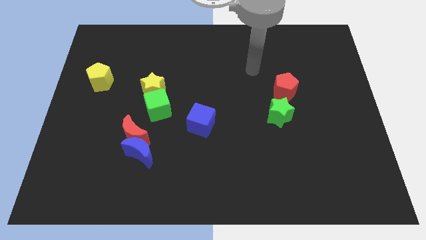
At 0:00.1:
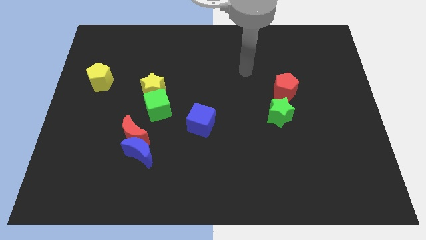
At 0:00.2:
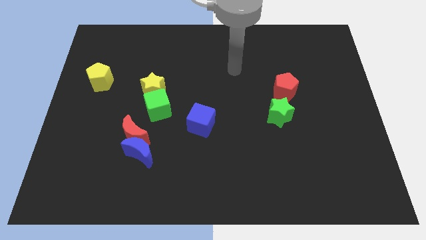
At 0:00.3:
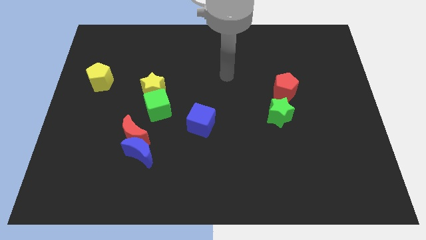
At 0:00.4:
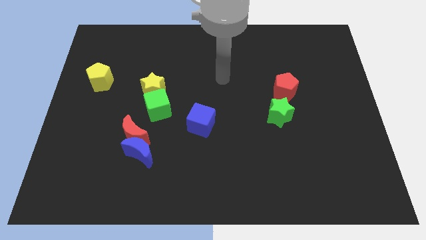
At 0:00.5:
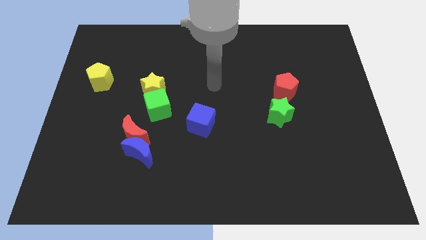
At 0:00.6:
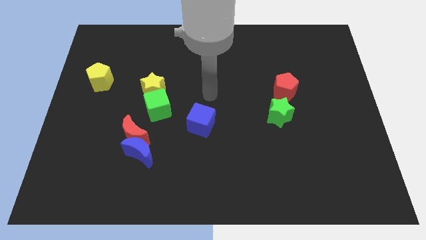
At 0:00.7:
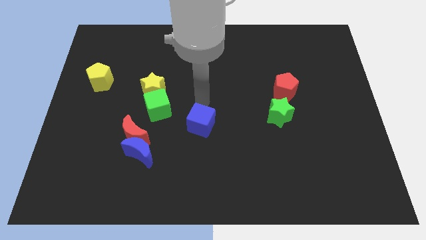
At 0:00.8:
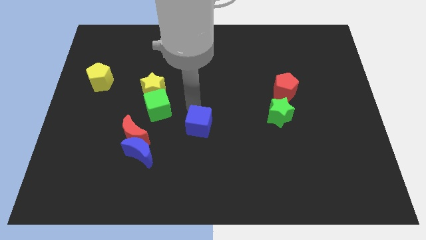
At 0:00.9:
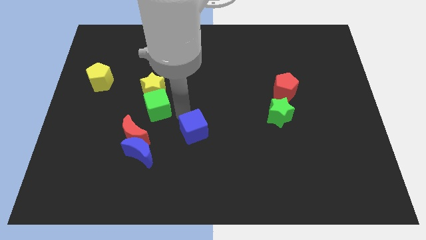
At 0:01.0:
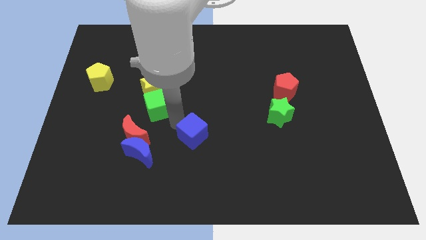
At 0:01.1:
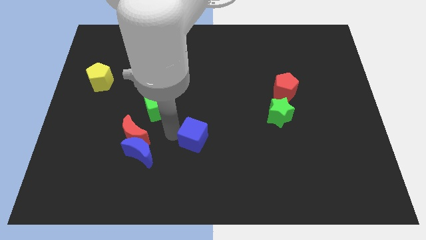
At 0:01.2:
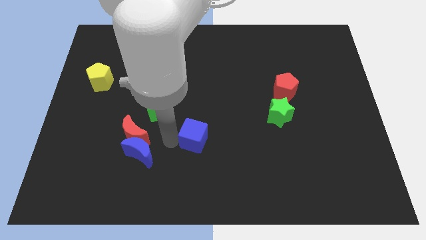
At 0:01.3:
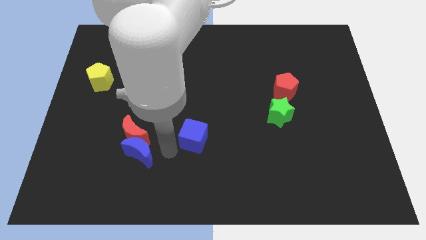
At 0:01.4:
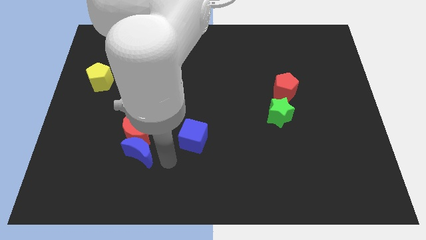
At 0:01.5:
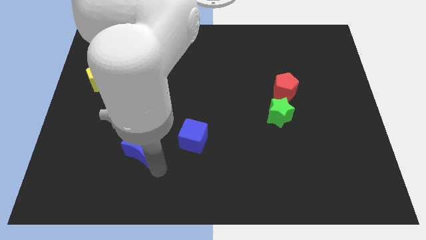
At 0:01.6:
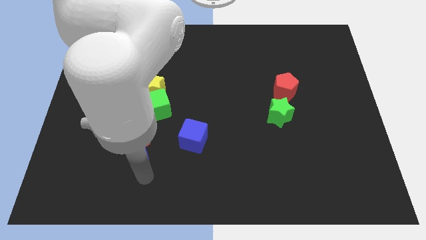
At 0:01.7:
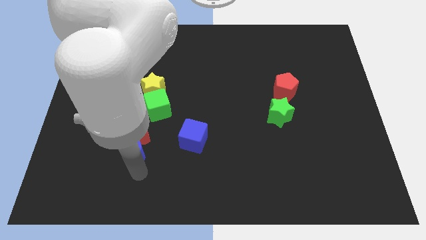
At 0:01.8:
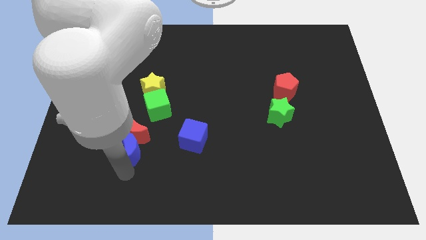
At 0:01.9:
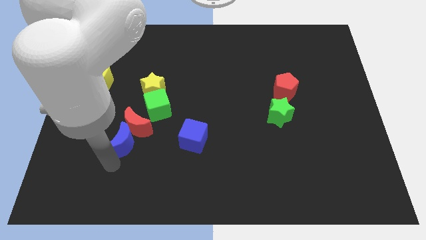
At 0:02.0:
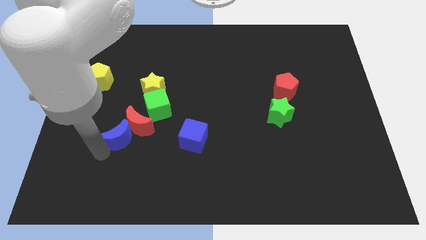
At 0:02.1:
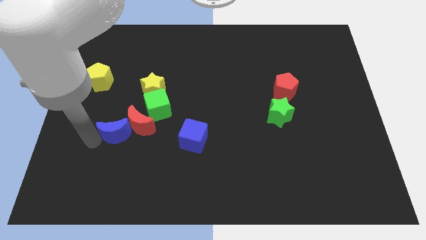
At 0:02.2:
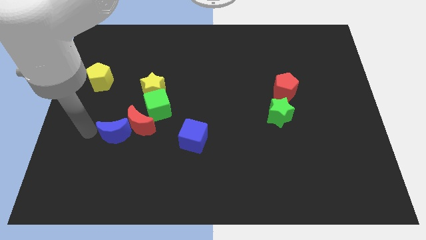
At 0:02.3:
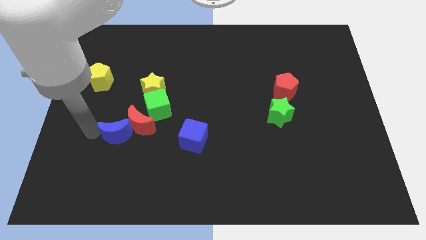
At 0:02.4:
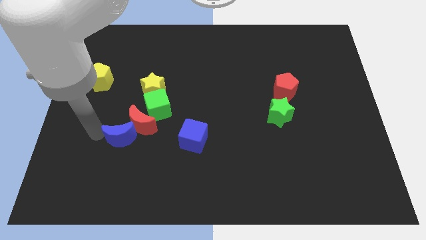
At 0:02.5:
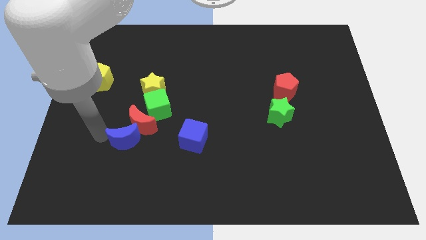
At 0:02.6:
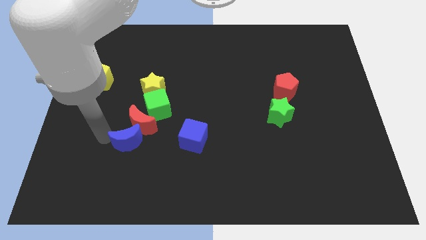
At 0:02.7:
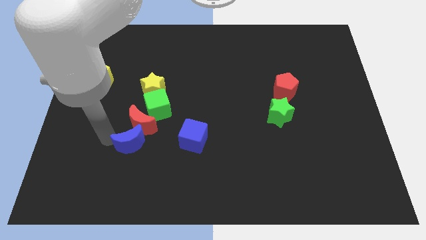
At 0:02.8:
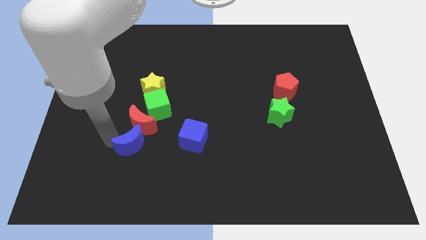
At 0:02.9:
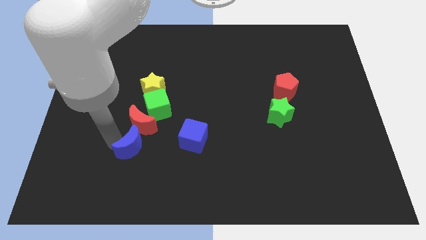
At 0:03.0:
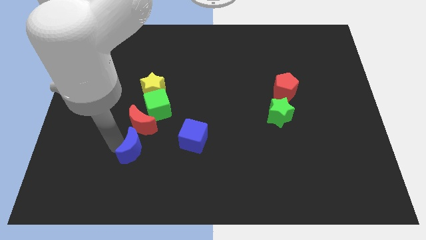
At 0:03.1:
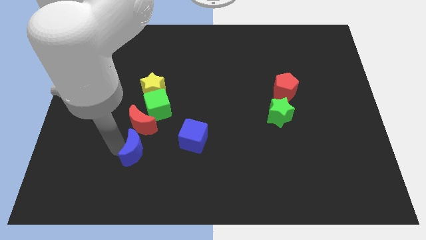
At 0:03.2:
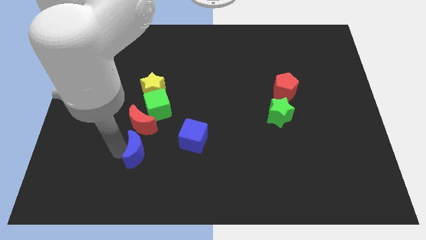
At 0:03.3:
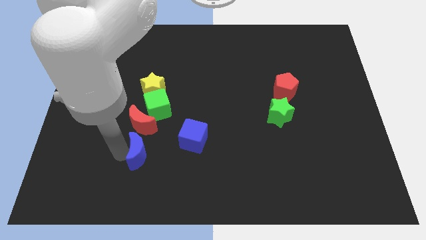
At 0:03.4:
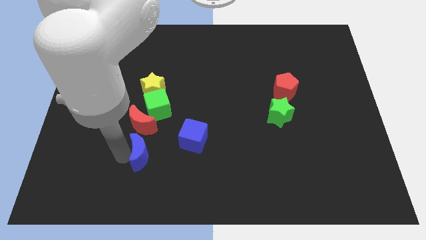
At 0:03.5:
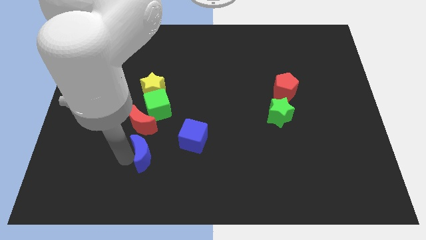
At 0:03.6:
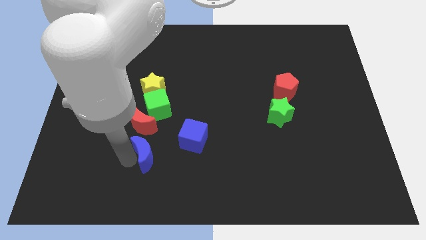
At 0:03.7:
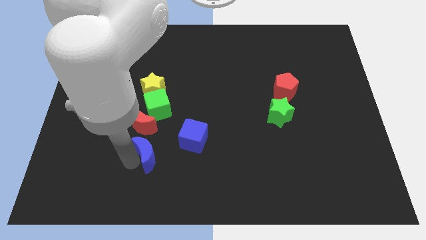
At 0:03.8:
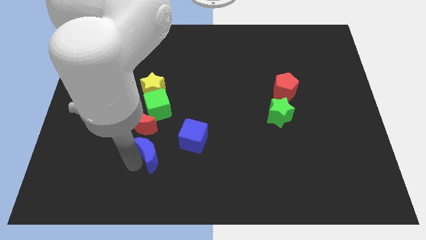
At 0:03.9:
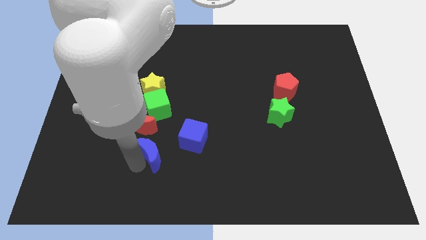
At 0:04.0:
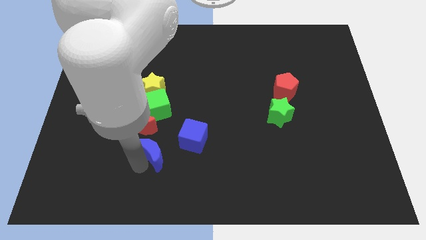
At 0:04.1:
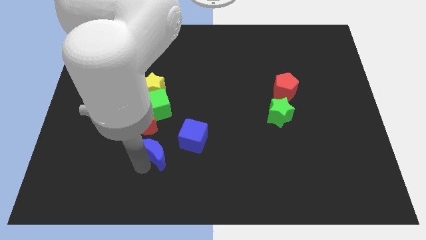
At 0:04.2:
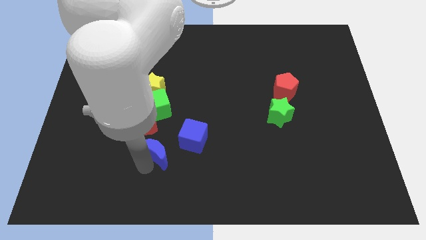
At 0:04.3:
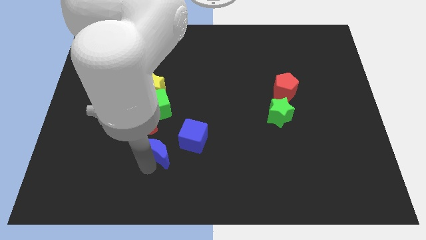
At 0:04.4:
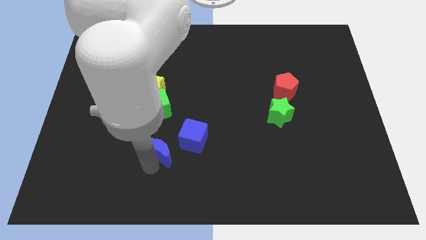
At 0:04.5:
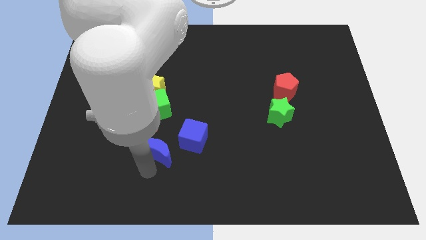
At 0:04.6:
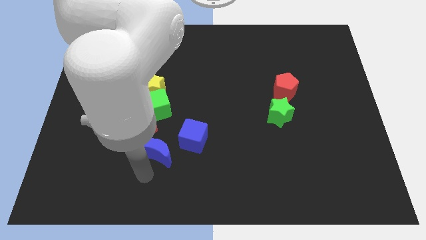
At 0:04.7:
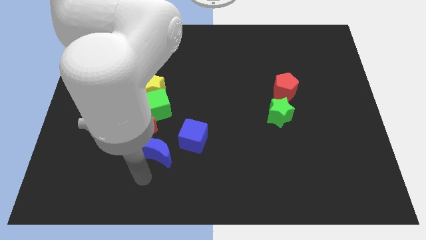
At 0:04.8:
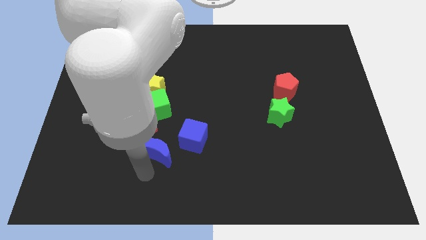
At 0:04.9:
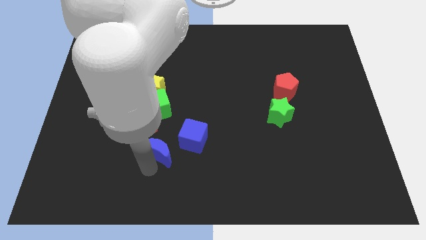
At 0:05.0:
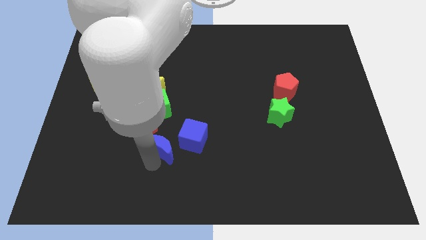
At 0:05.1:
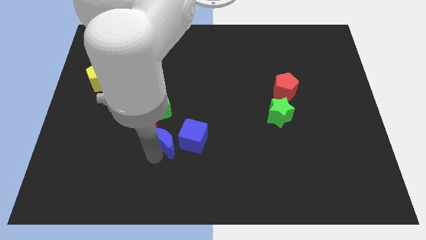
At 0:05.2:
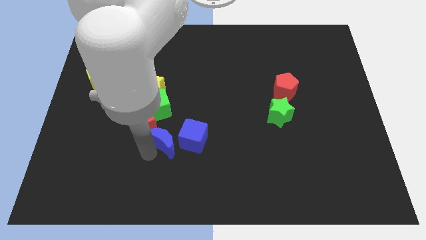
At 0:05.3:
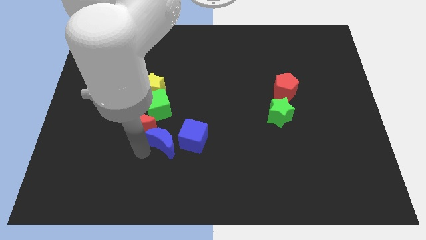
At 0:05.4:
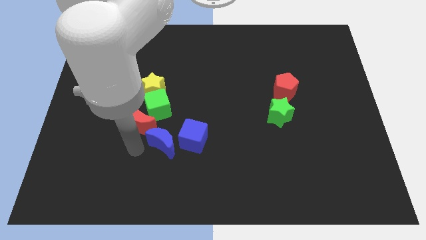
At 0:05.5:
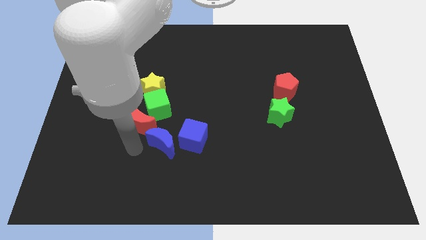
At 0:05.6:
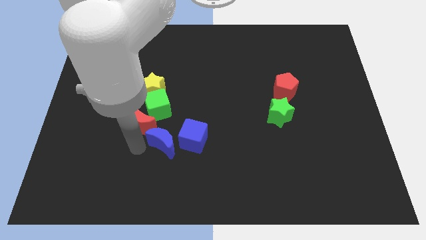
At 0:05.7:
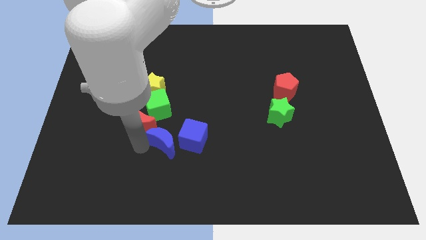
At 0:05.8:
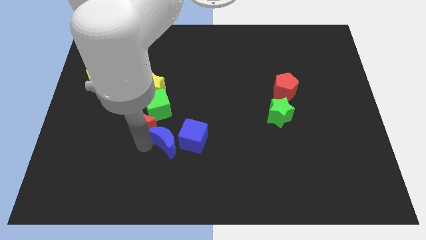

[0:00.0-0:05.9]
slide the blue moon towards the blue cube

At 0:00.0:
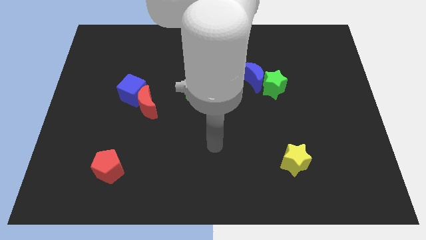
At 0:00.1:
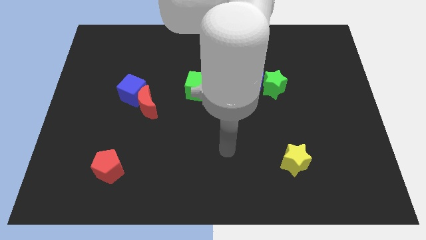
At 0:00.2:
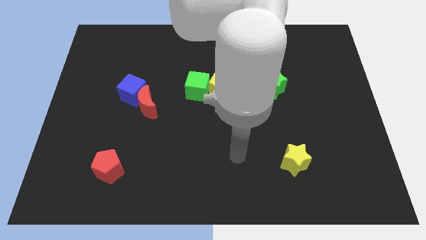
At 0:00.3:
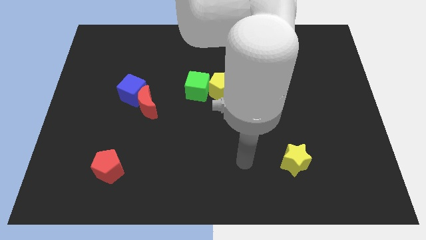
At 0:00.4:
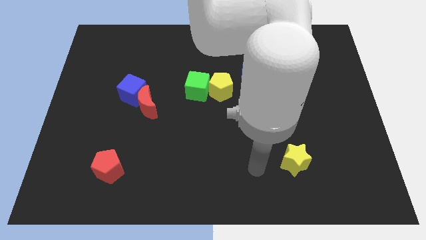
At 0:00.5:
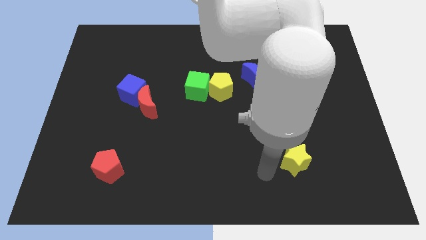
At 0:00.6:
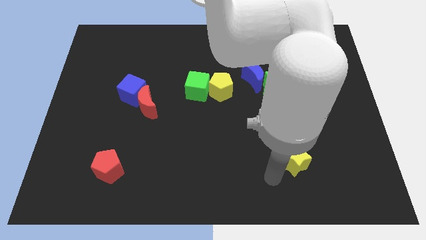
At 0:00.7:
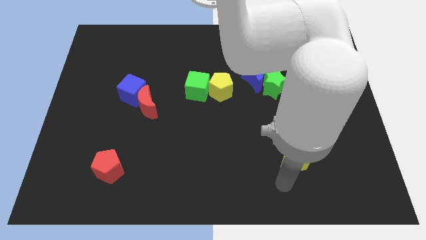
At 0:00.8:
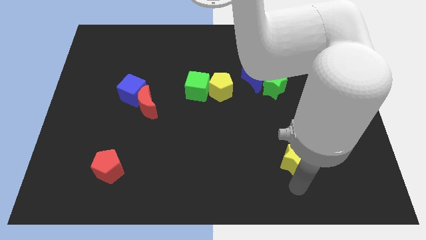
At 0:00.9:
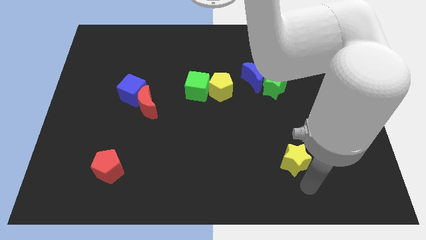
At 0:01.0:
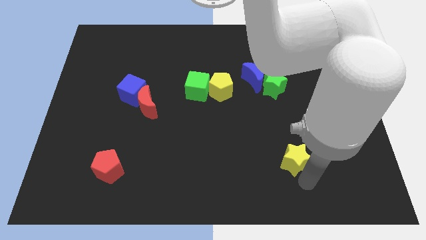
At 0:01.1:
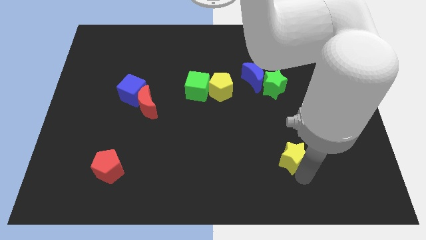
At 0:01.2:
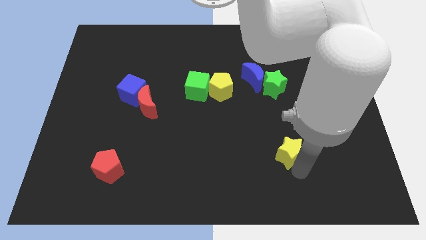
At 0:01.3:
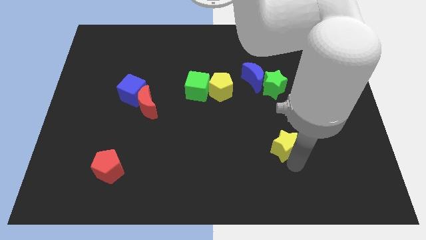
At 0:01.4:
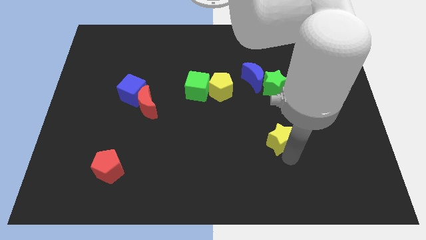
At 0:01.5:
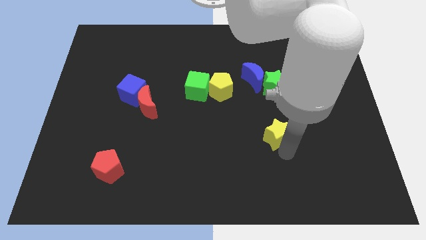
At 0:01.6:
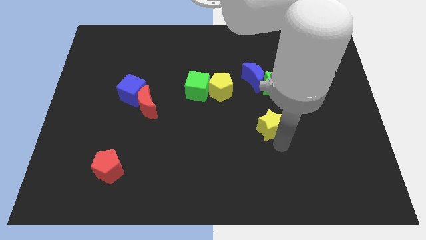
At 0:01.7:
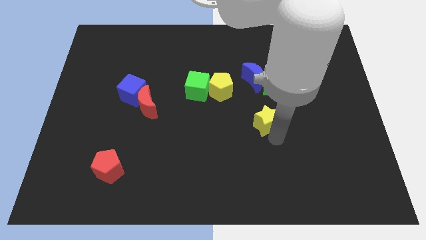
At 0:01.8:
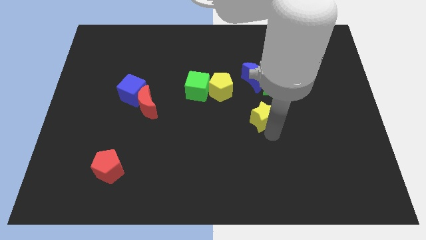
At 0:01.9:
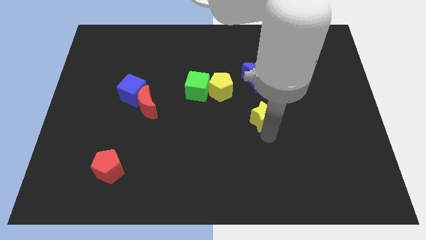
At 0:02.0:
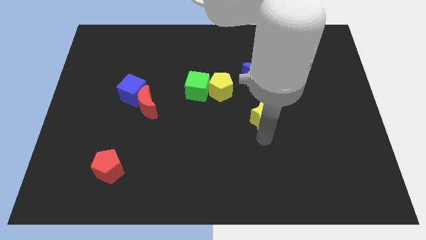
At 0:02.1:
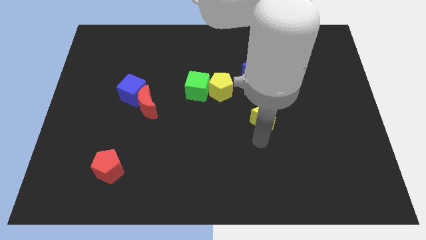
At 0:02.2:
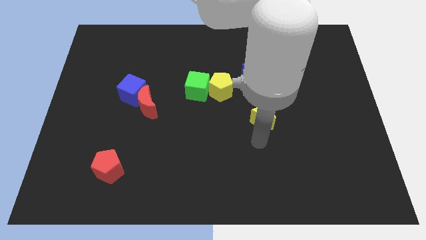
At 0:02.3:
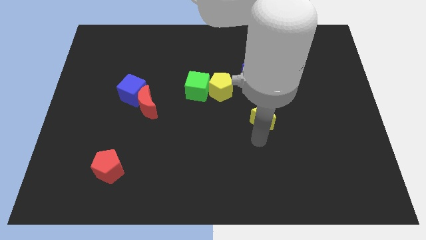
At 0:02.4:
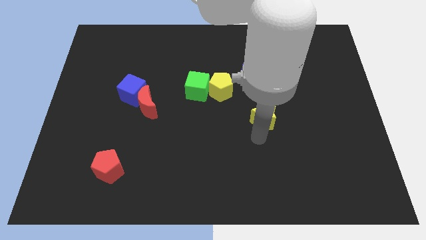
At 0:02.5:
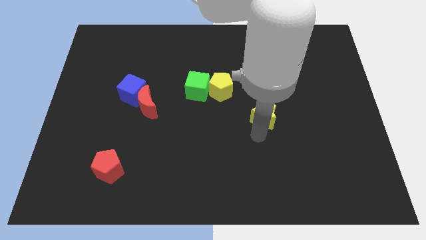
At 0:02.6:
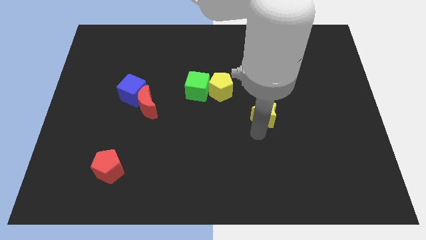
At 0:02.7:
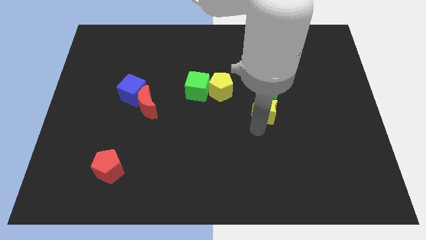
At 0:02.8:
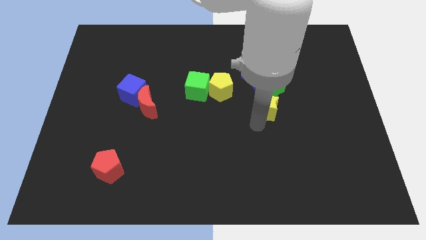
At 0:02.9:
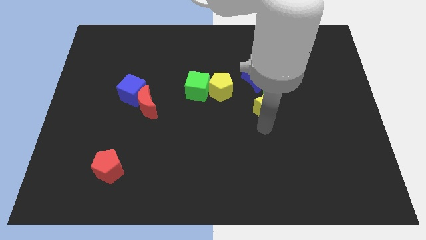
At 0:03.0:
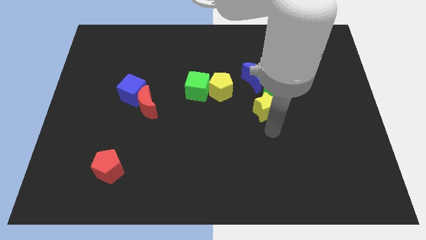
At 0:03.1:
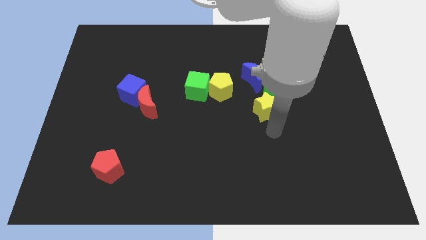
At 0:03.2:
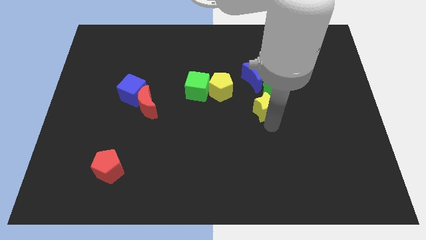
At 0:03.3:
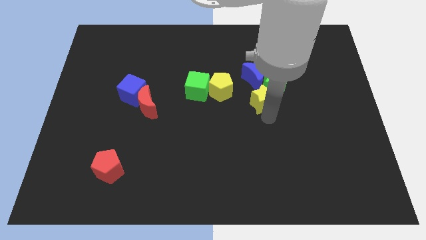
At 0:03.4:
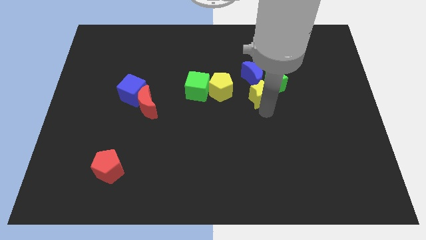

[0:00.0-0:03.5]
push the yellow star to the blue moon
